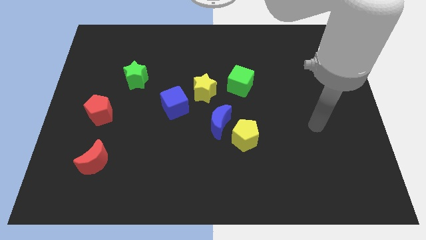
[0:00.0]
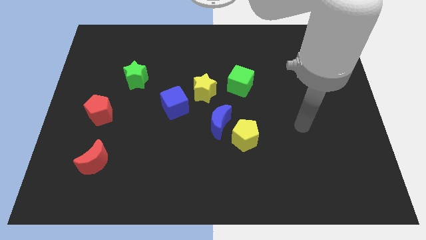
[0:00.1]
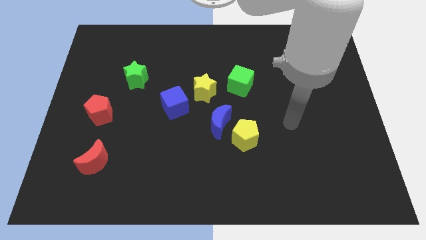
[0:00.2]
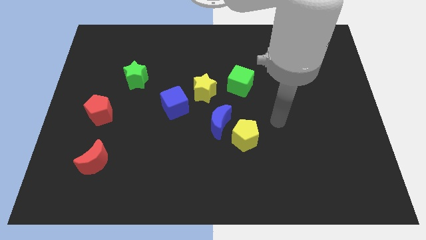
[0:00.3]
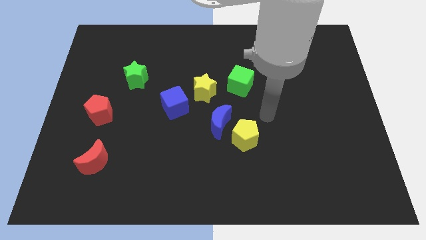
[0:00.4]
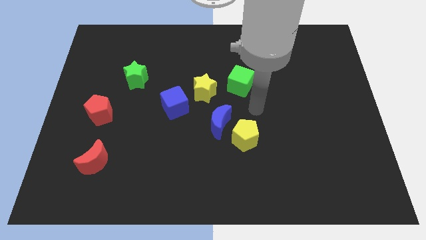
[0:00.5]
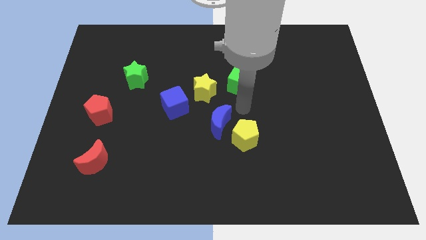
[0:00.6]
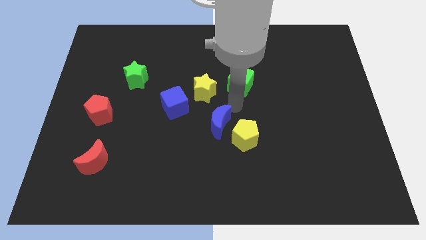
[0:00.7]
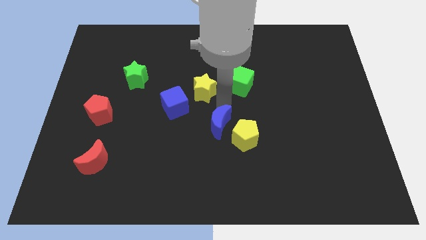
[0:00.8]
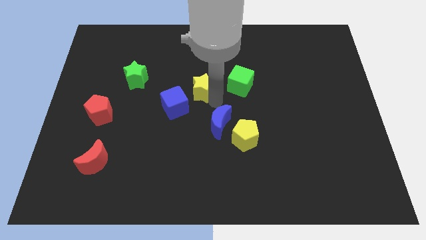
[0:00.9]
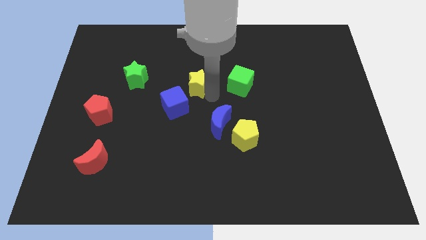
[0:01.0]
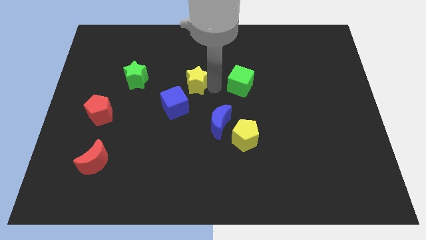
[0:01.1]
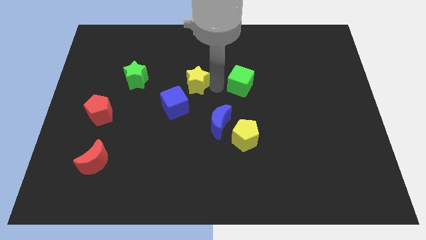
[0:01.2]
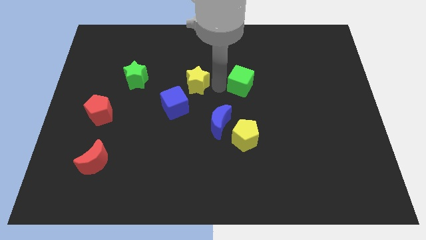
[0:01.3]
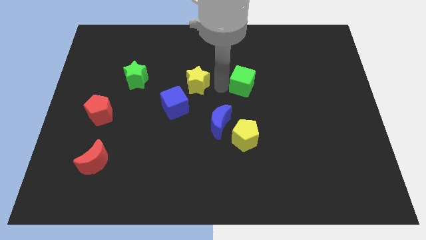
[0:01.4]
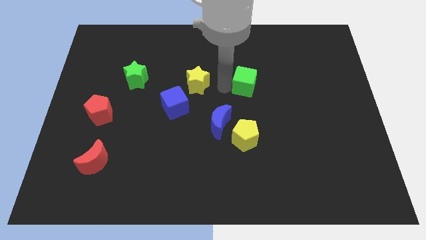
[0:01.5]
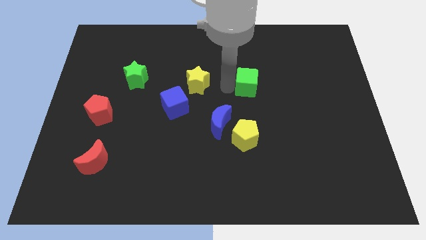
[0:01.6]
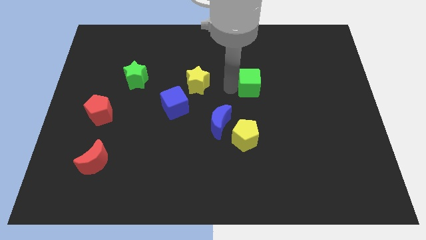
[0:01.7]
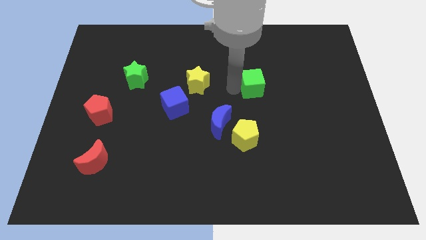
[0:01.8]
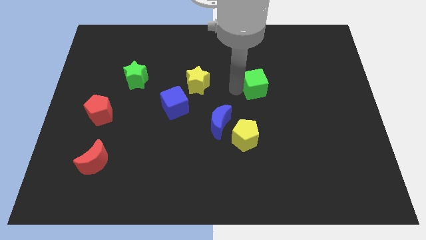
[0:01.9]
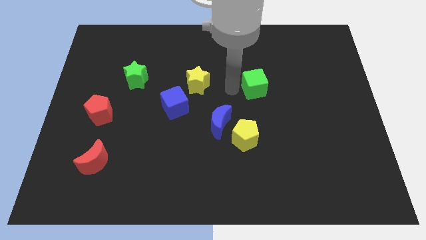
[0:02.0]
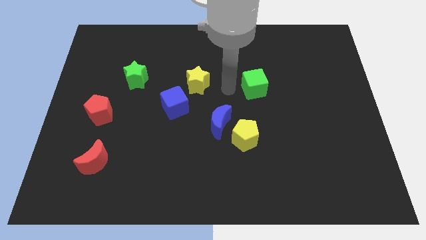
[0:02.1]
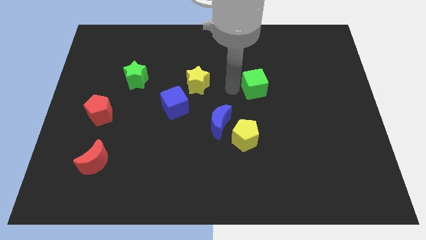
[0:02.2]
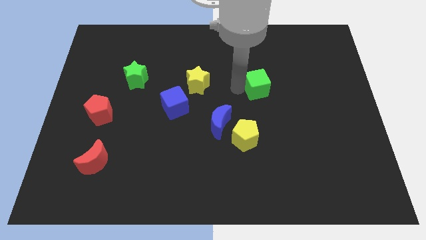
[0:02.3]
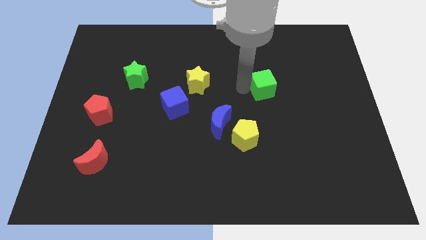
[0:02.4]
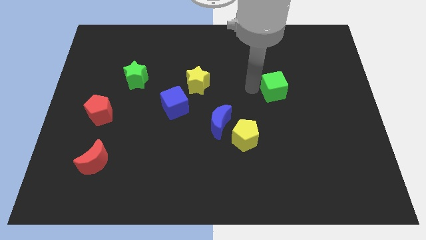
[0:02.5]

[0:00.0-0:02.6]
push the green cube to the right a little

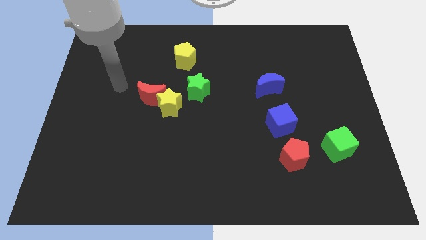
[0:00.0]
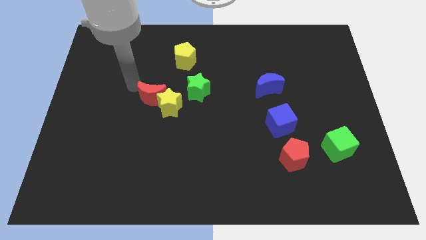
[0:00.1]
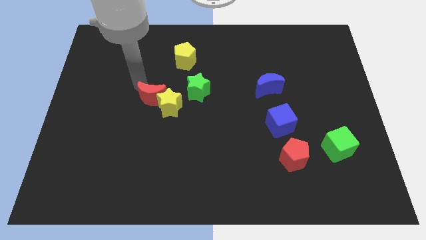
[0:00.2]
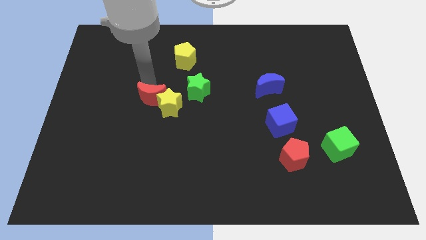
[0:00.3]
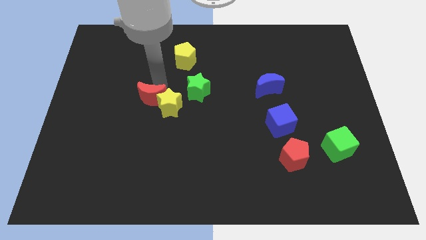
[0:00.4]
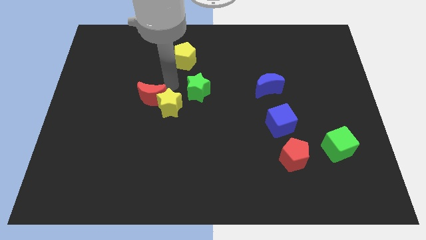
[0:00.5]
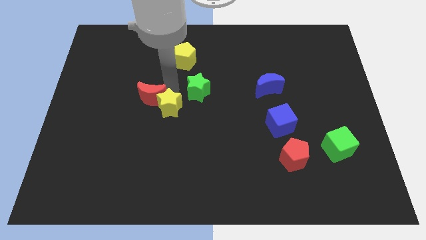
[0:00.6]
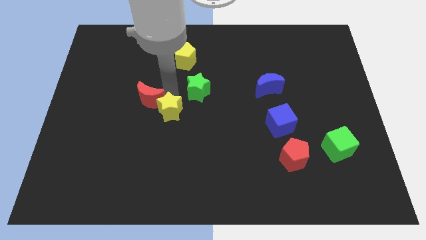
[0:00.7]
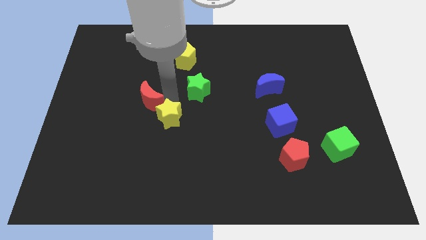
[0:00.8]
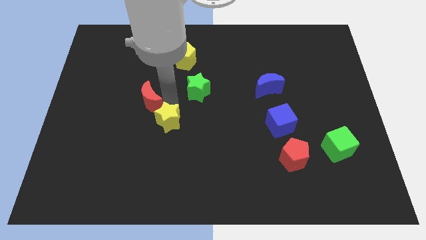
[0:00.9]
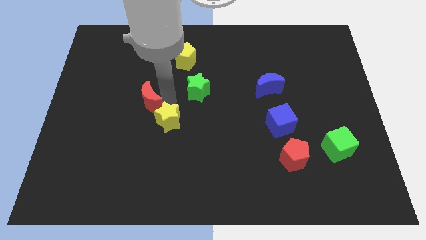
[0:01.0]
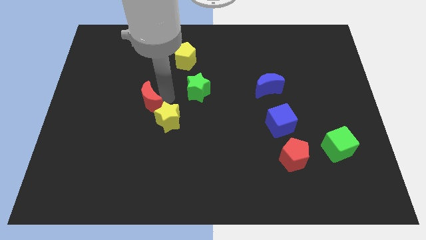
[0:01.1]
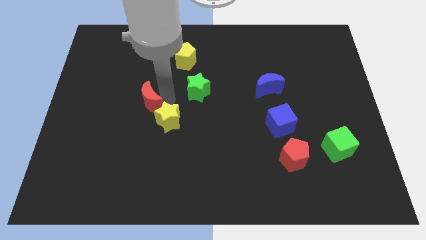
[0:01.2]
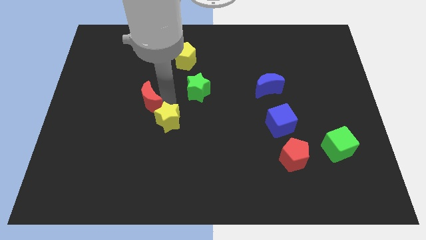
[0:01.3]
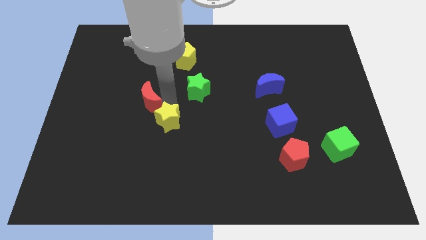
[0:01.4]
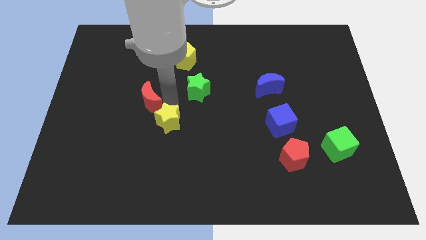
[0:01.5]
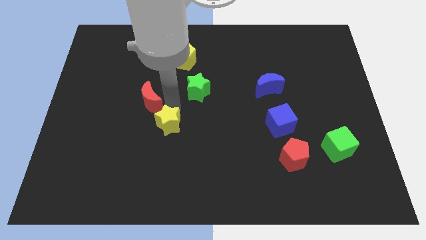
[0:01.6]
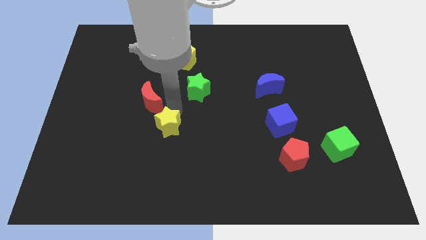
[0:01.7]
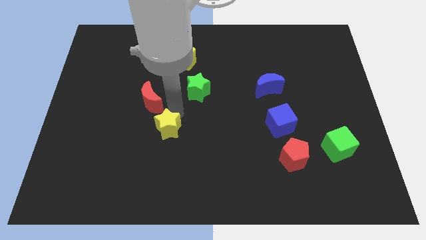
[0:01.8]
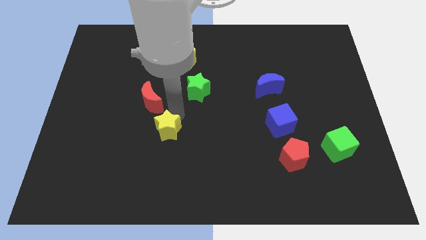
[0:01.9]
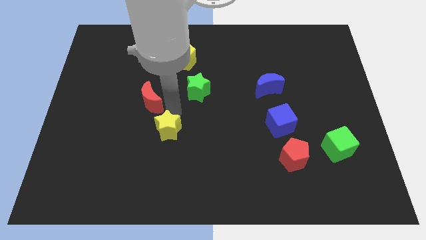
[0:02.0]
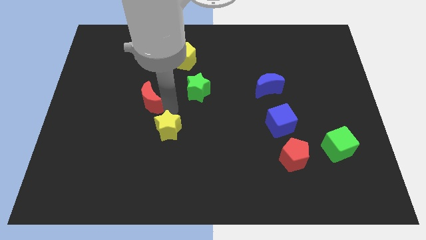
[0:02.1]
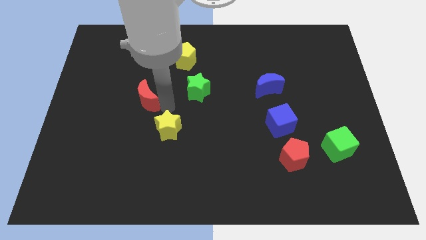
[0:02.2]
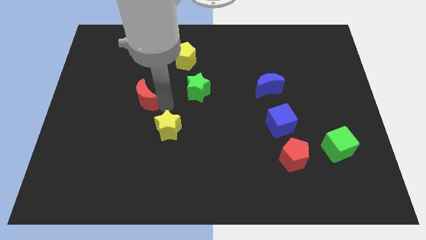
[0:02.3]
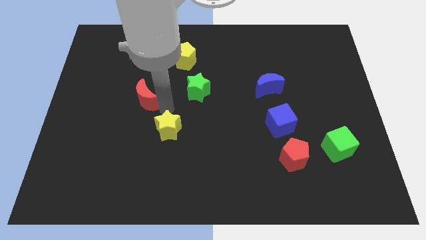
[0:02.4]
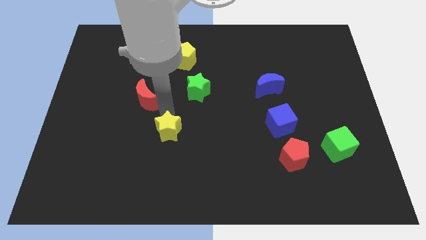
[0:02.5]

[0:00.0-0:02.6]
push the yellow star down a little

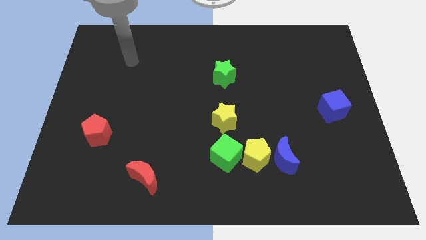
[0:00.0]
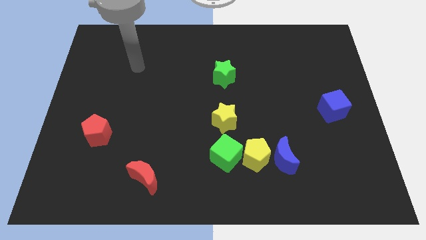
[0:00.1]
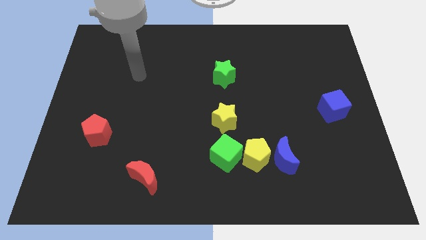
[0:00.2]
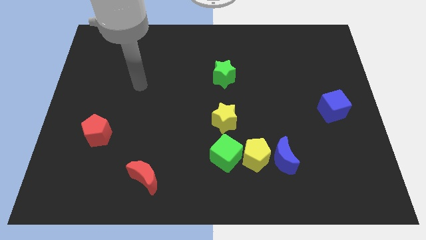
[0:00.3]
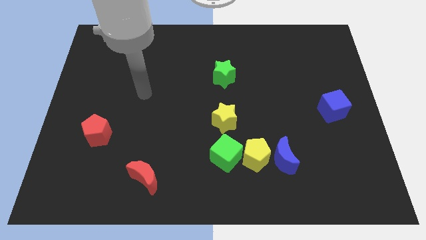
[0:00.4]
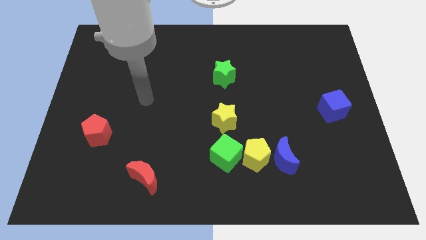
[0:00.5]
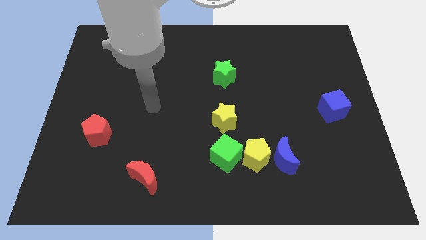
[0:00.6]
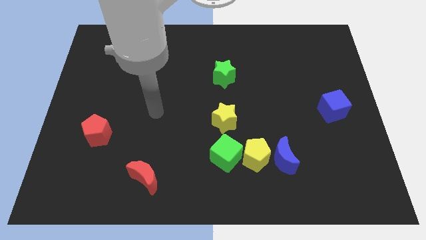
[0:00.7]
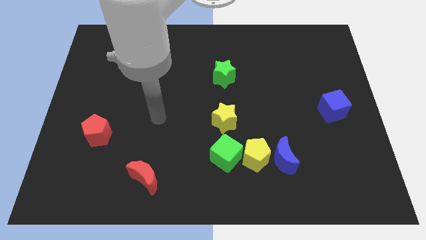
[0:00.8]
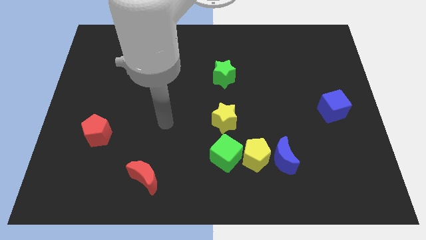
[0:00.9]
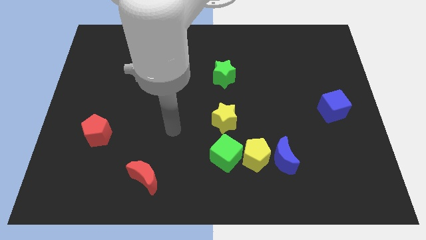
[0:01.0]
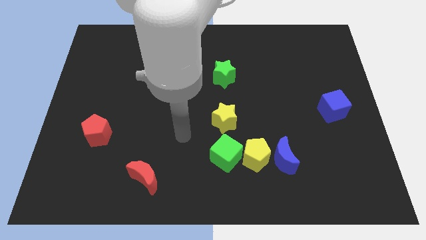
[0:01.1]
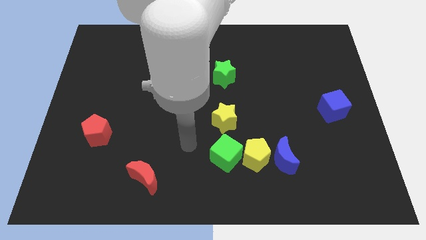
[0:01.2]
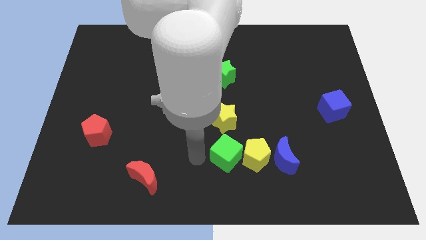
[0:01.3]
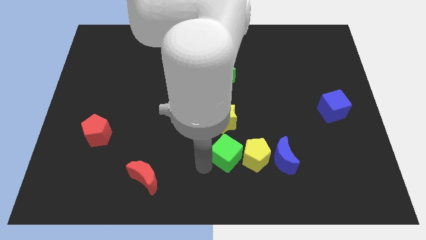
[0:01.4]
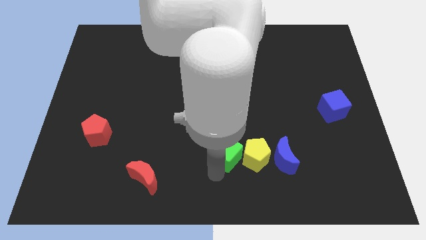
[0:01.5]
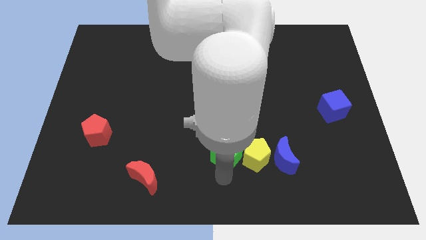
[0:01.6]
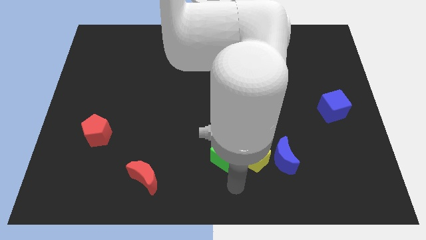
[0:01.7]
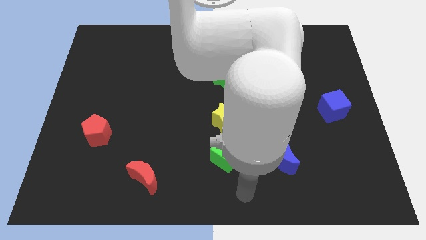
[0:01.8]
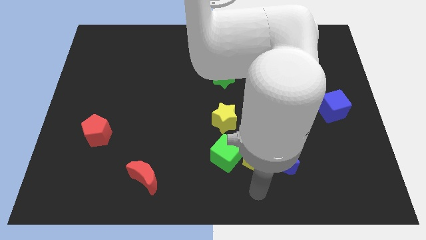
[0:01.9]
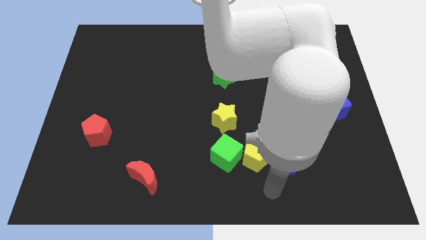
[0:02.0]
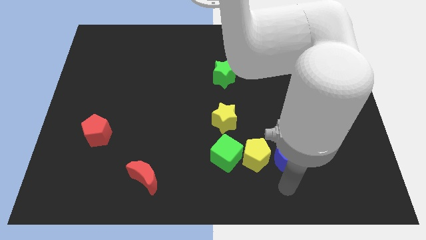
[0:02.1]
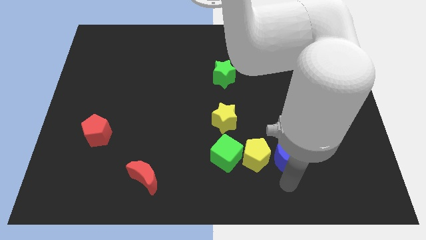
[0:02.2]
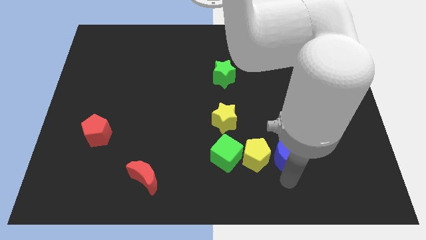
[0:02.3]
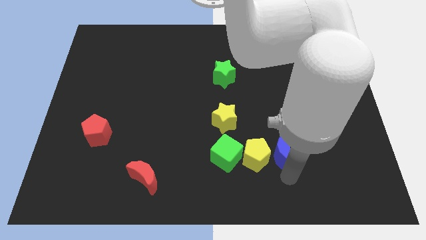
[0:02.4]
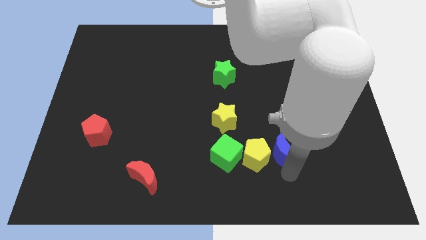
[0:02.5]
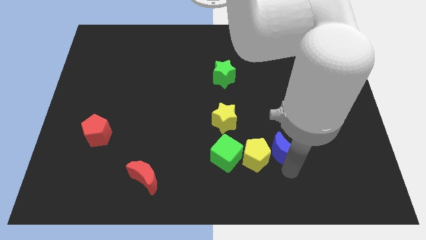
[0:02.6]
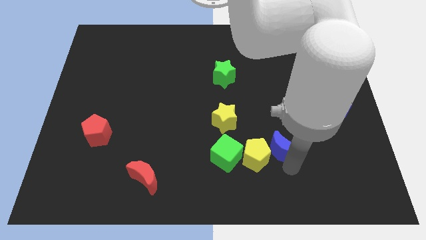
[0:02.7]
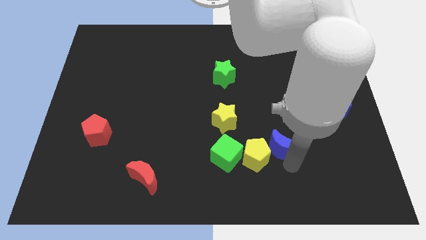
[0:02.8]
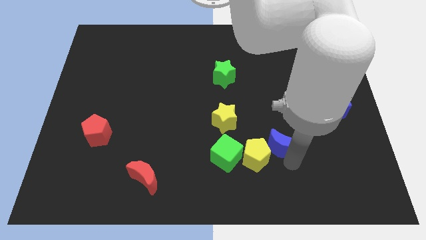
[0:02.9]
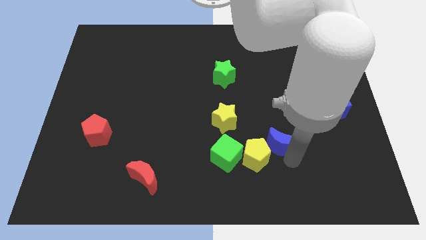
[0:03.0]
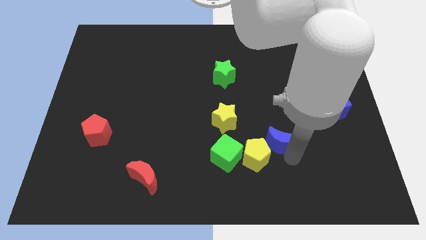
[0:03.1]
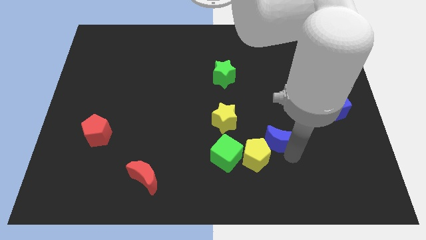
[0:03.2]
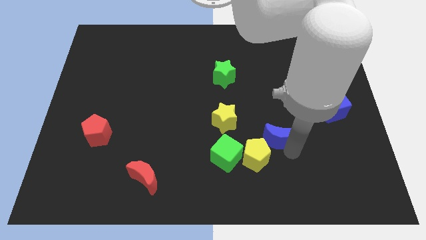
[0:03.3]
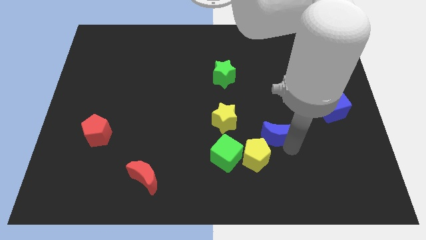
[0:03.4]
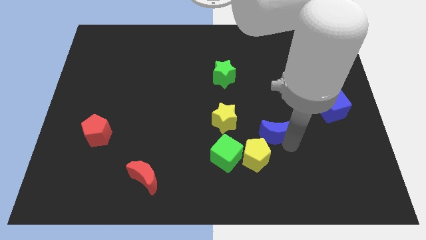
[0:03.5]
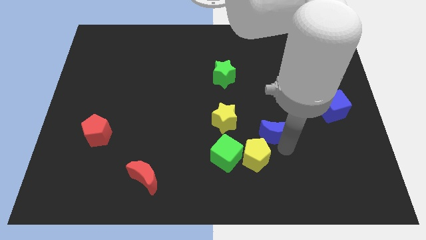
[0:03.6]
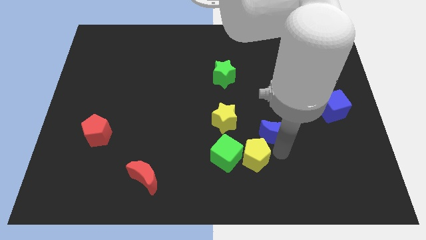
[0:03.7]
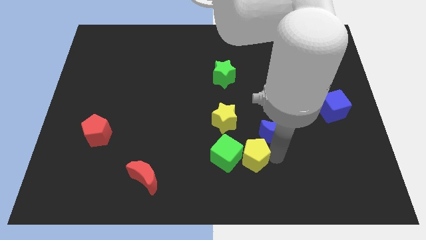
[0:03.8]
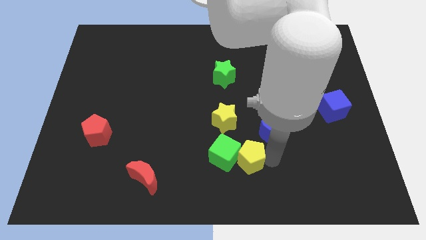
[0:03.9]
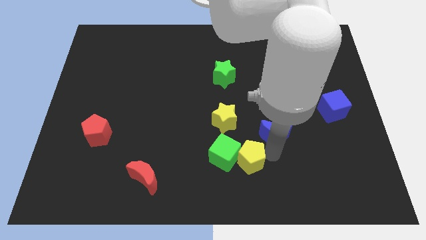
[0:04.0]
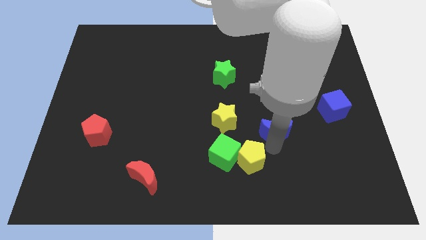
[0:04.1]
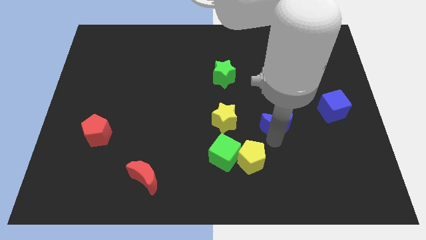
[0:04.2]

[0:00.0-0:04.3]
move the blue moon a bit upwards
